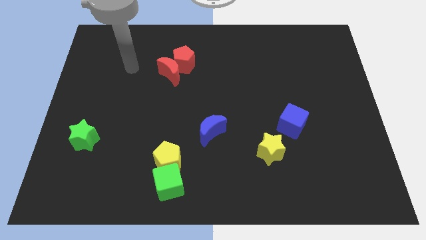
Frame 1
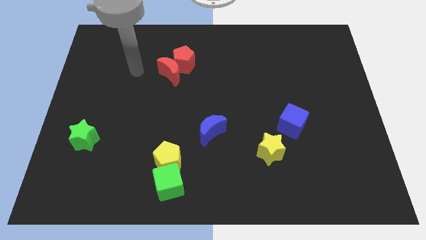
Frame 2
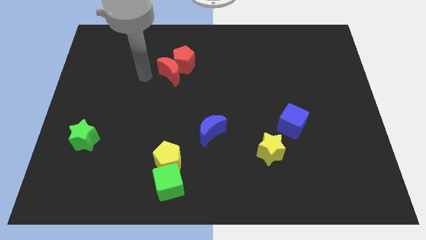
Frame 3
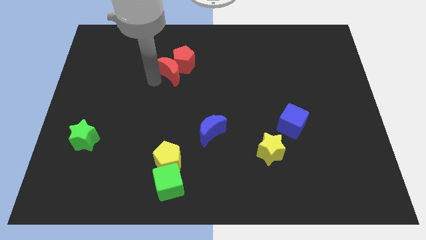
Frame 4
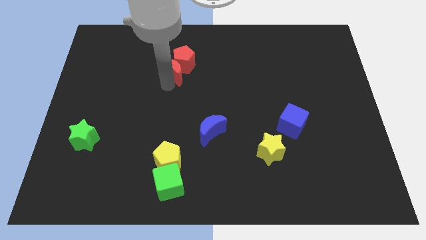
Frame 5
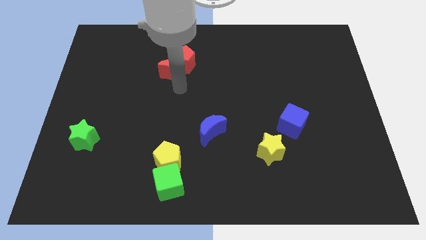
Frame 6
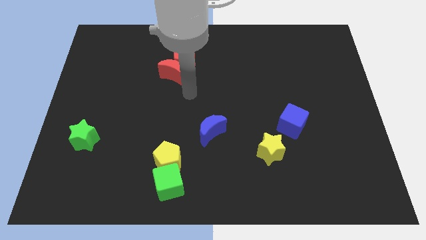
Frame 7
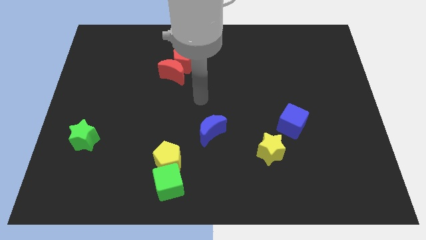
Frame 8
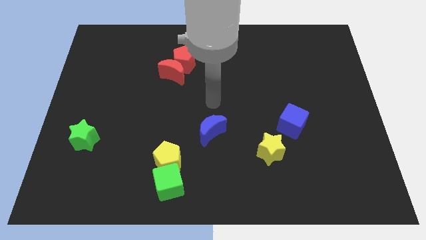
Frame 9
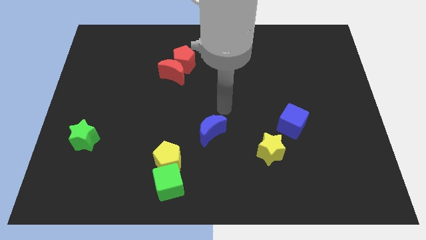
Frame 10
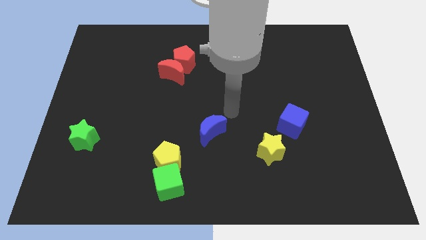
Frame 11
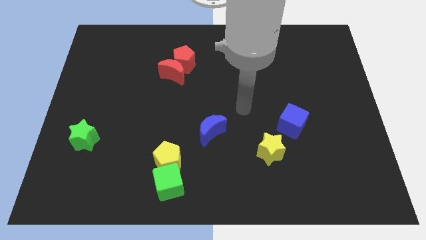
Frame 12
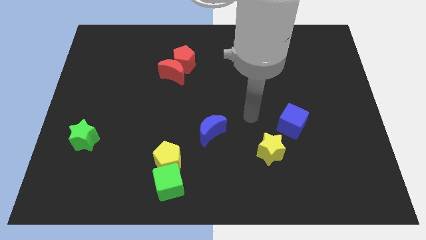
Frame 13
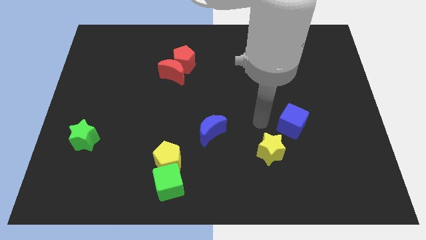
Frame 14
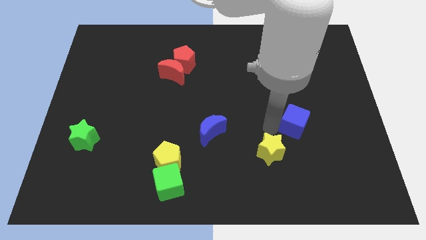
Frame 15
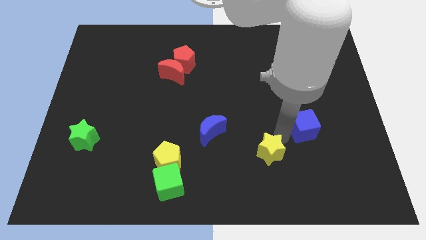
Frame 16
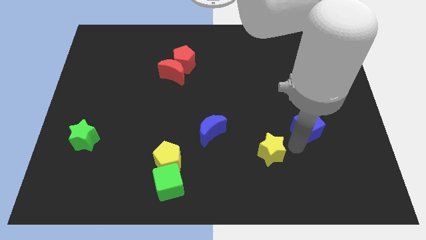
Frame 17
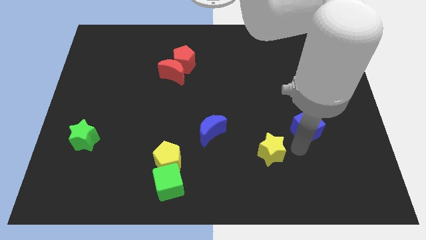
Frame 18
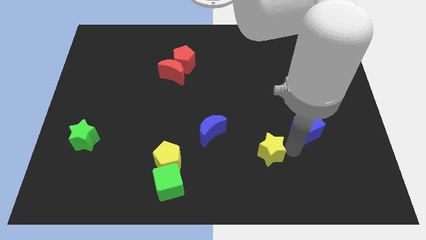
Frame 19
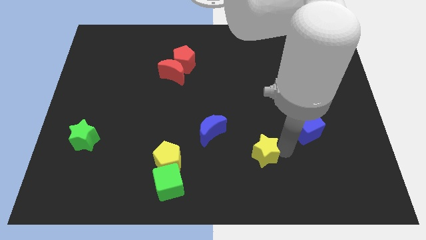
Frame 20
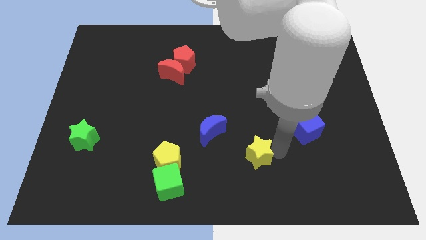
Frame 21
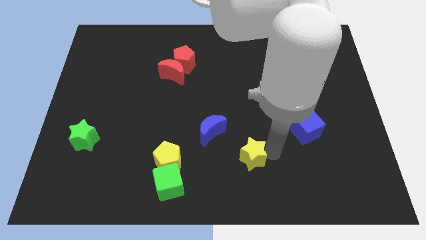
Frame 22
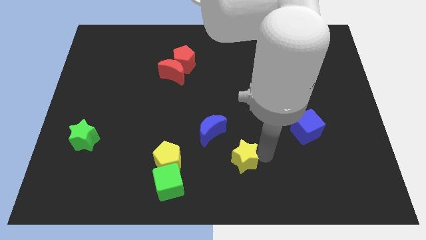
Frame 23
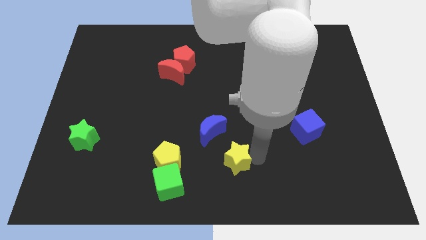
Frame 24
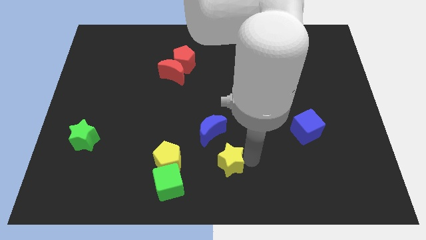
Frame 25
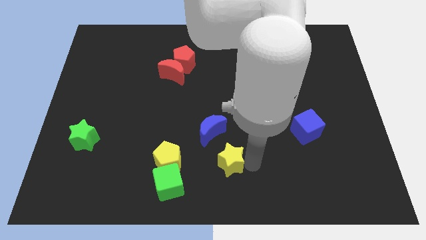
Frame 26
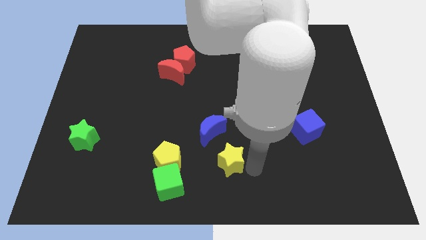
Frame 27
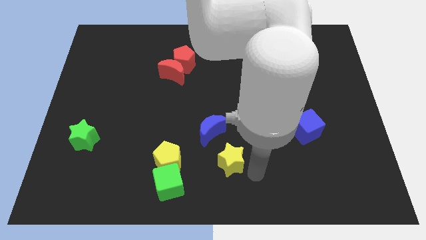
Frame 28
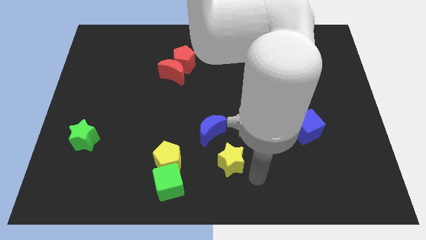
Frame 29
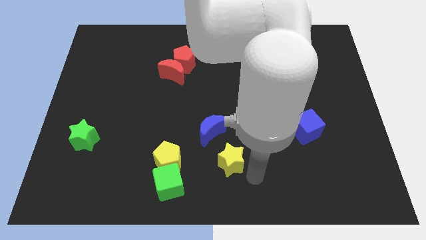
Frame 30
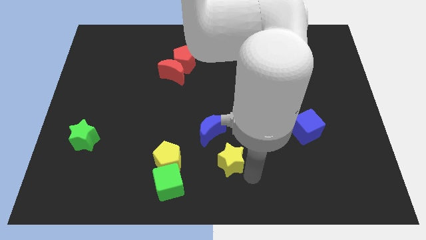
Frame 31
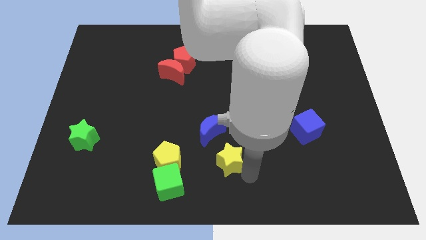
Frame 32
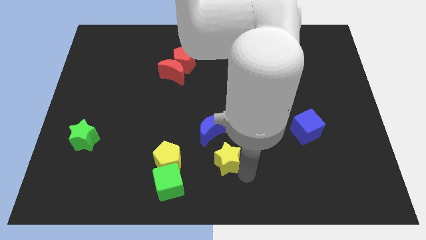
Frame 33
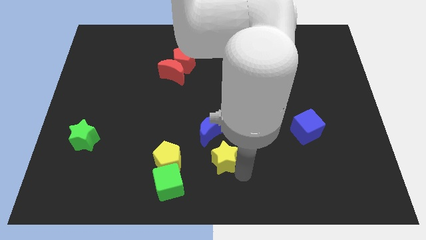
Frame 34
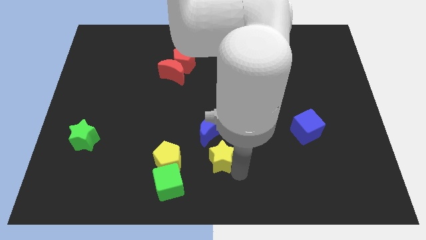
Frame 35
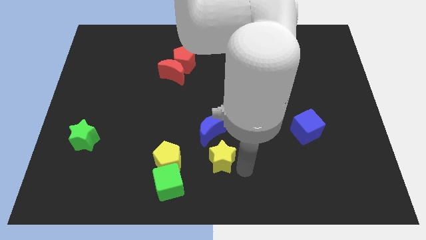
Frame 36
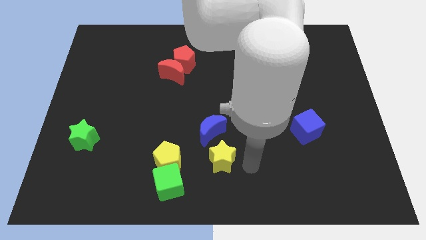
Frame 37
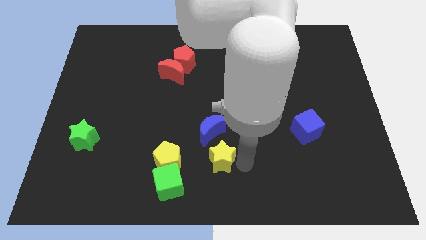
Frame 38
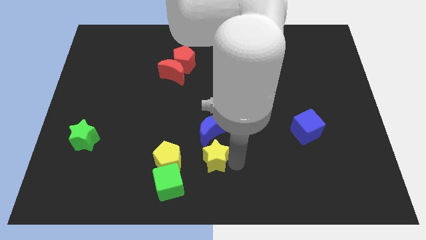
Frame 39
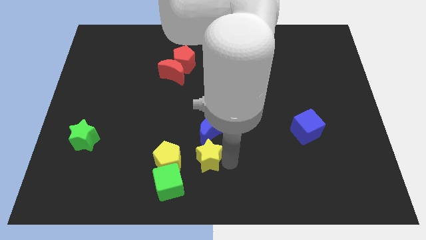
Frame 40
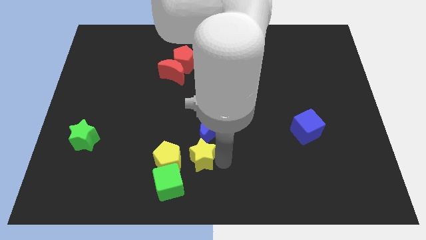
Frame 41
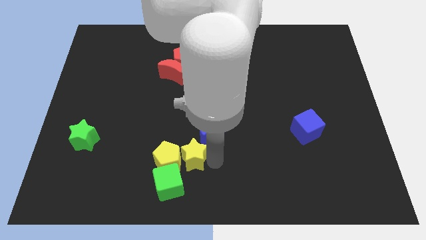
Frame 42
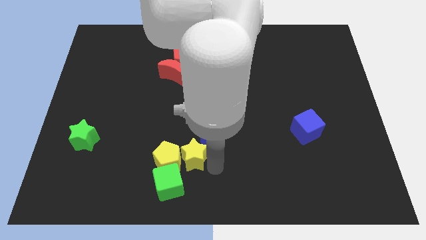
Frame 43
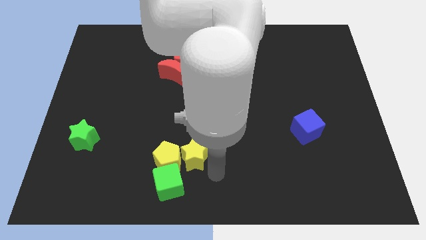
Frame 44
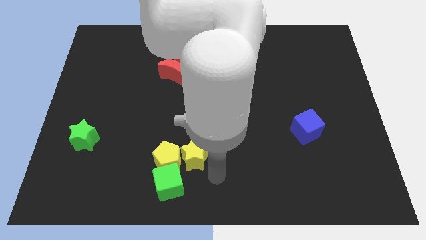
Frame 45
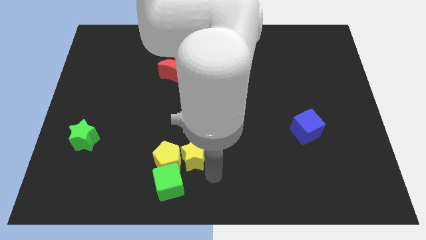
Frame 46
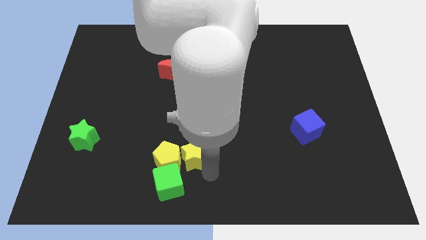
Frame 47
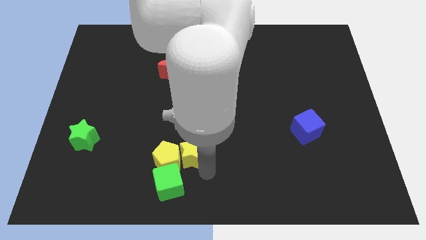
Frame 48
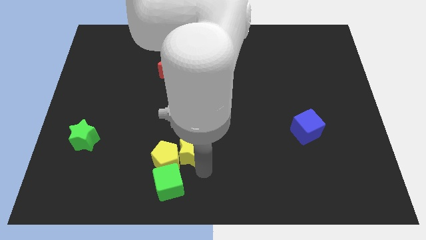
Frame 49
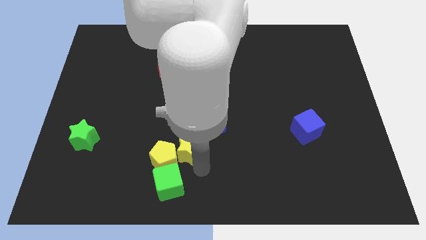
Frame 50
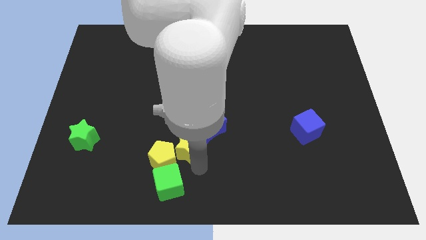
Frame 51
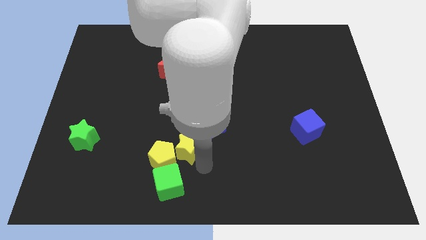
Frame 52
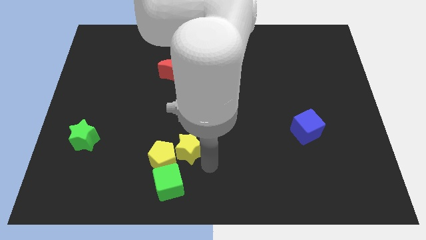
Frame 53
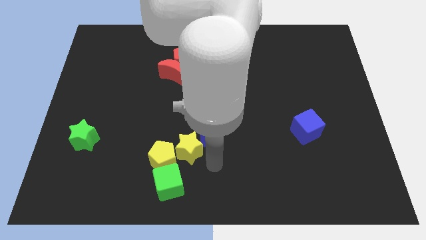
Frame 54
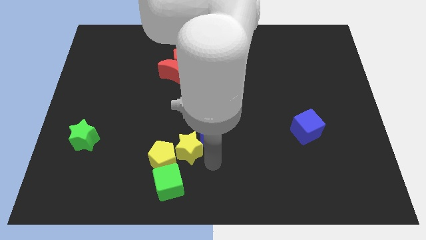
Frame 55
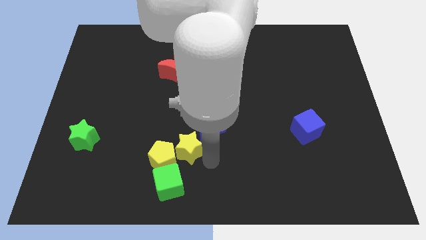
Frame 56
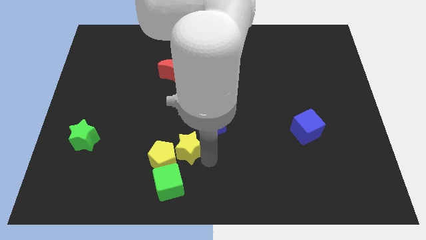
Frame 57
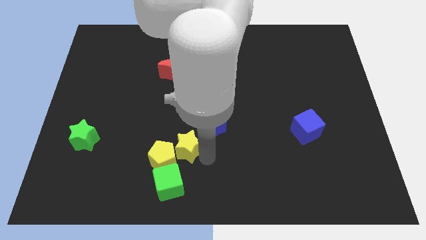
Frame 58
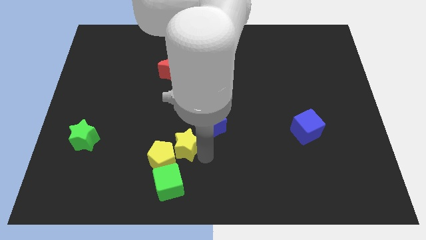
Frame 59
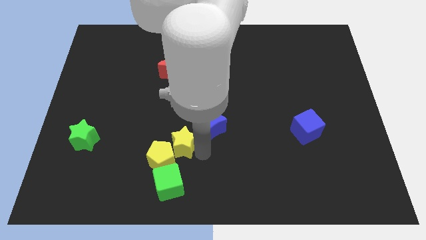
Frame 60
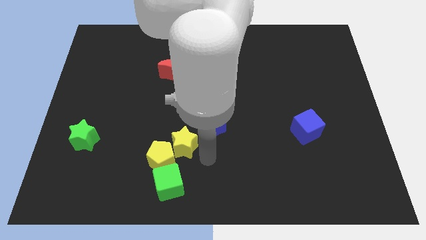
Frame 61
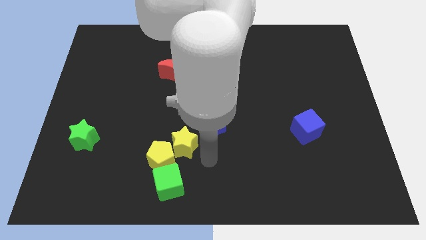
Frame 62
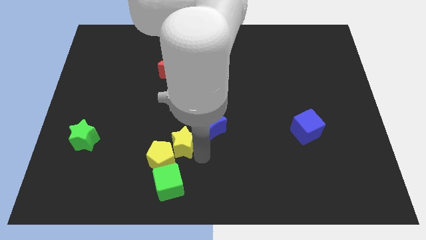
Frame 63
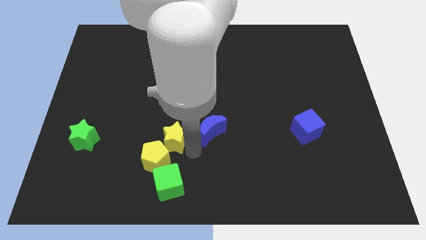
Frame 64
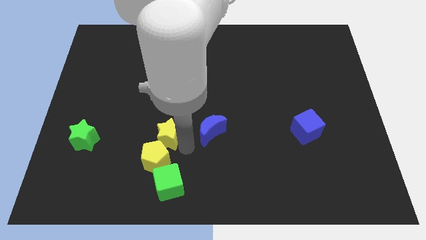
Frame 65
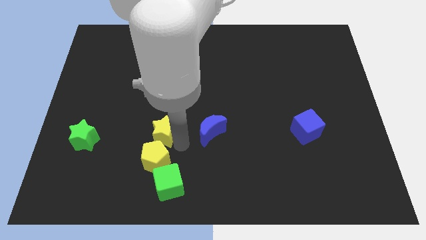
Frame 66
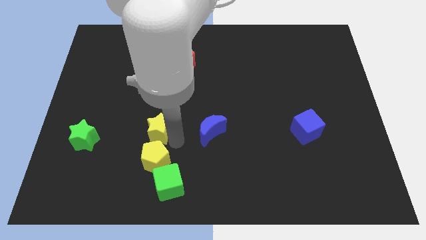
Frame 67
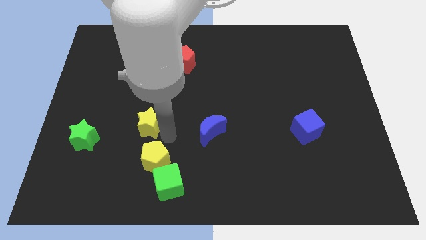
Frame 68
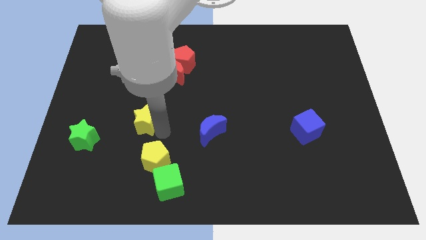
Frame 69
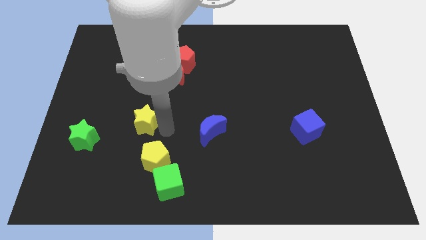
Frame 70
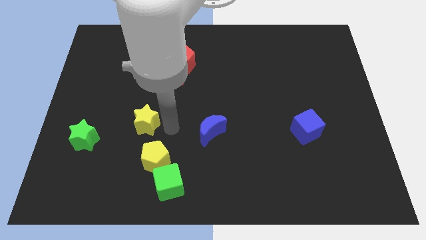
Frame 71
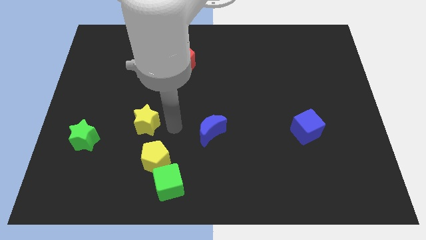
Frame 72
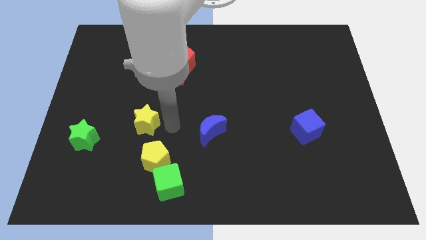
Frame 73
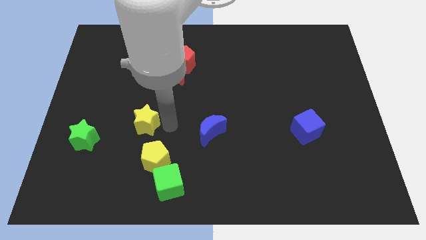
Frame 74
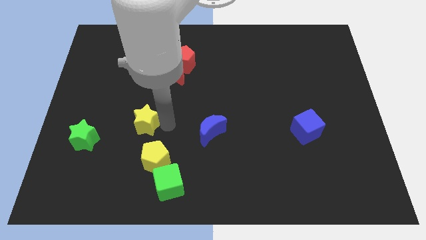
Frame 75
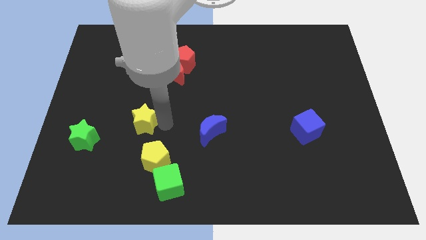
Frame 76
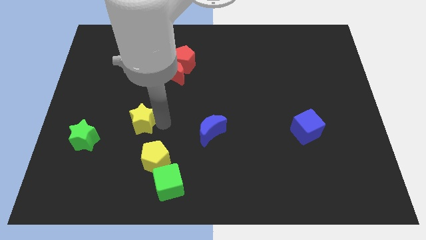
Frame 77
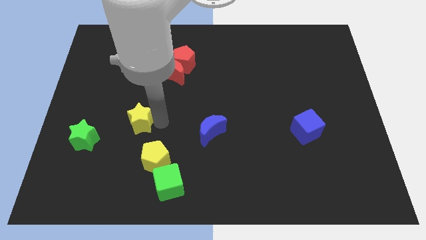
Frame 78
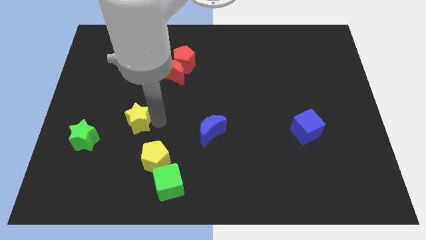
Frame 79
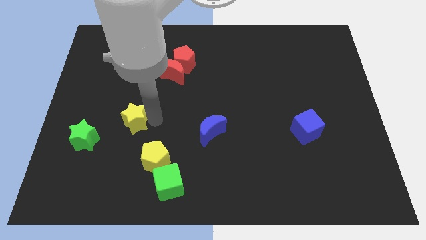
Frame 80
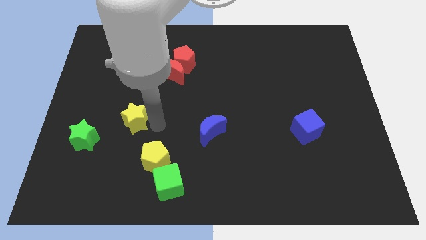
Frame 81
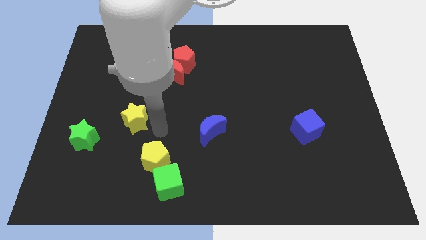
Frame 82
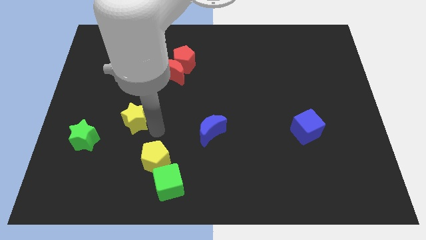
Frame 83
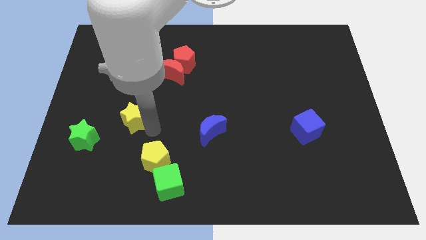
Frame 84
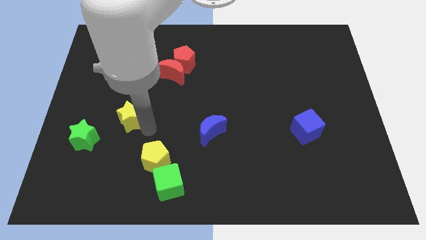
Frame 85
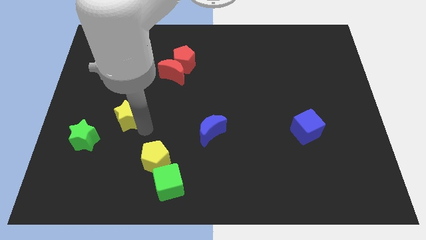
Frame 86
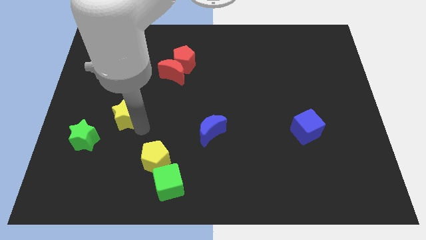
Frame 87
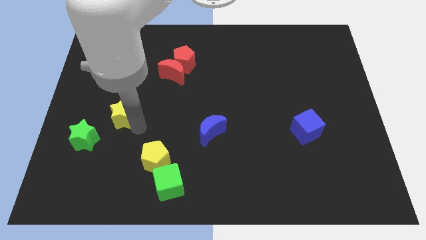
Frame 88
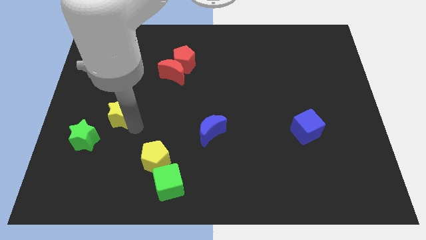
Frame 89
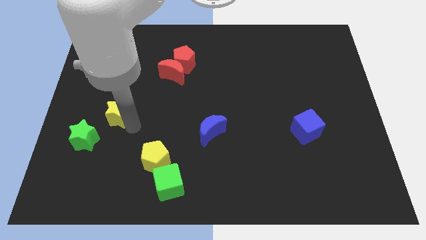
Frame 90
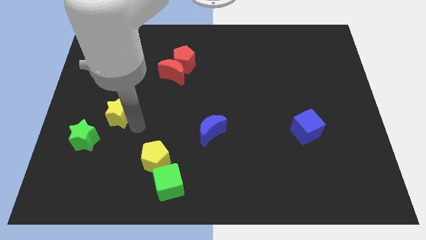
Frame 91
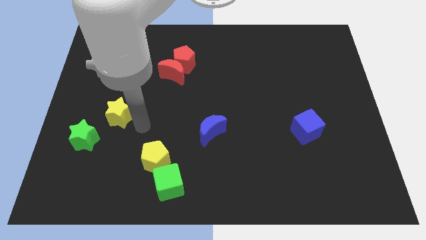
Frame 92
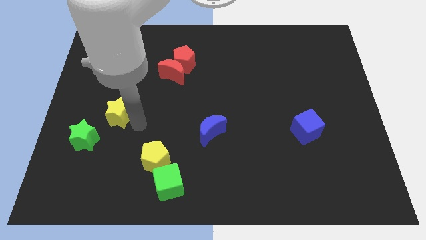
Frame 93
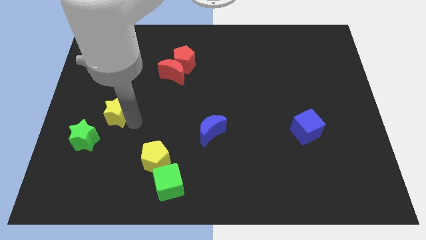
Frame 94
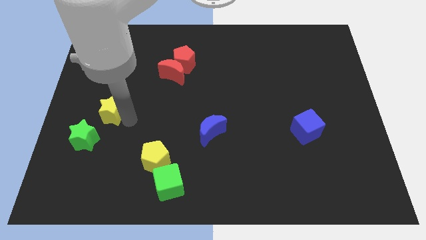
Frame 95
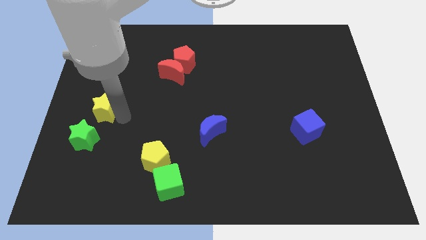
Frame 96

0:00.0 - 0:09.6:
move the yellow star to the left side of the board
